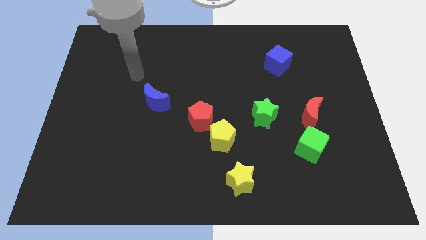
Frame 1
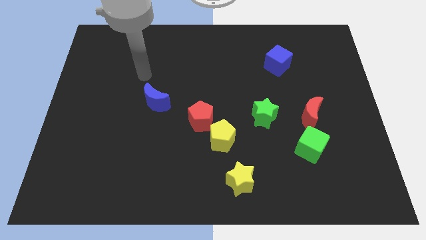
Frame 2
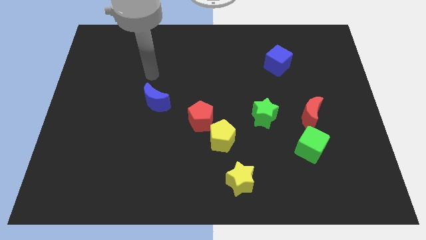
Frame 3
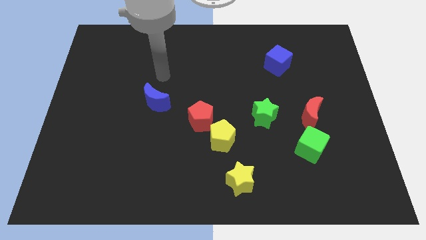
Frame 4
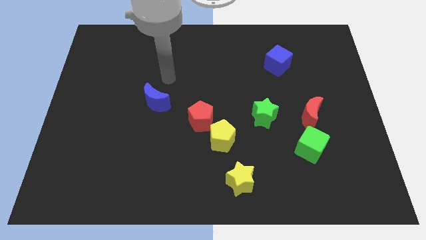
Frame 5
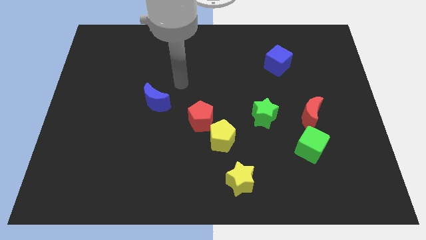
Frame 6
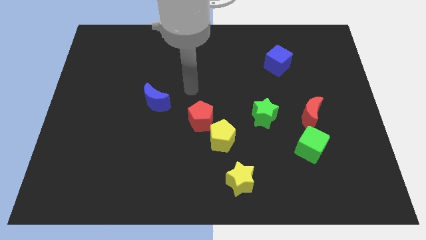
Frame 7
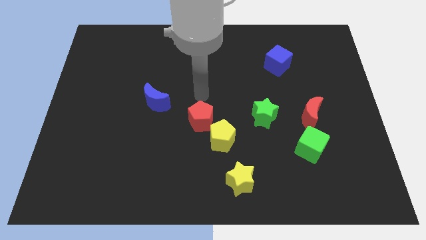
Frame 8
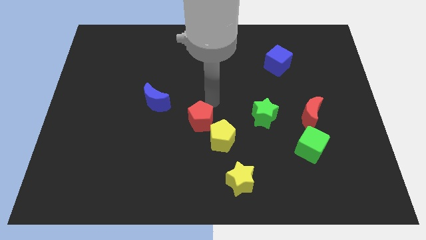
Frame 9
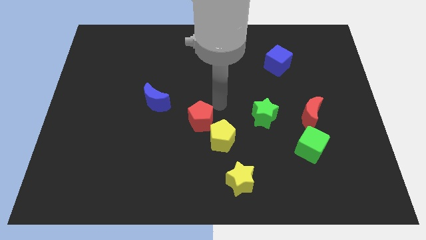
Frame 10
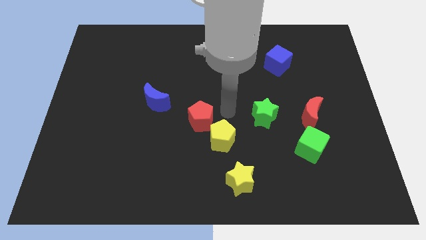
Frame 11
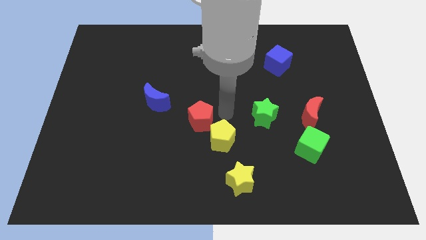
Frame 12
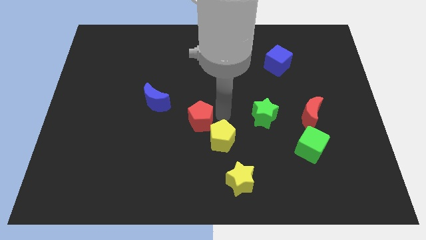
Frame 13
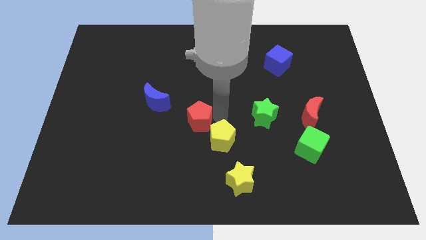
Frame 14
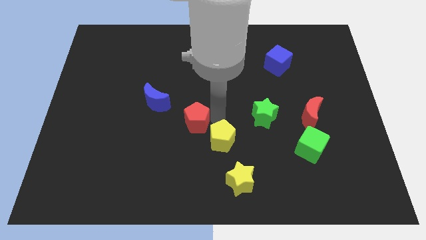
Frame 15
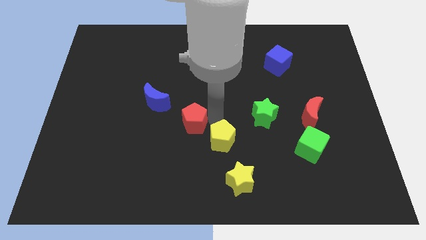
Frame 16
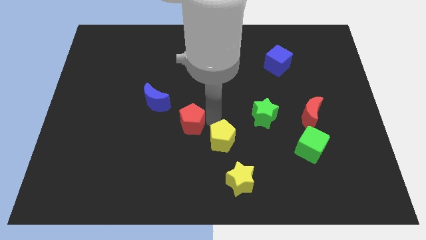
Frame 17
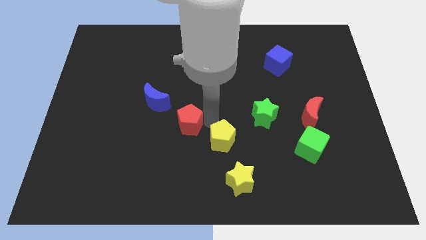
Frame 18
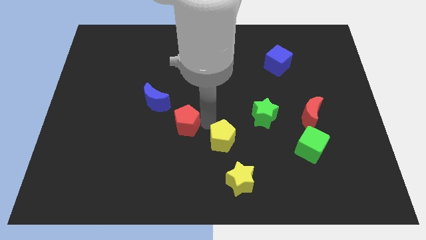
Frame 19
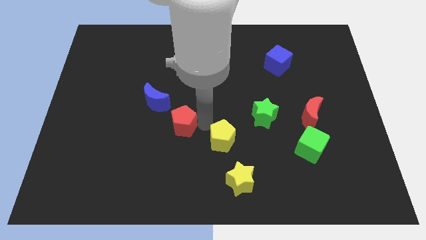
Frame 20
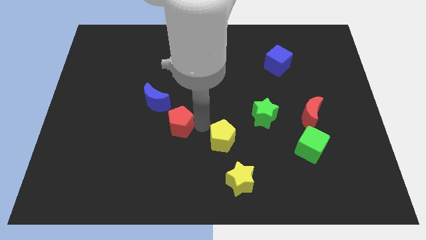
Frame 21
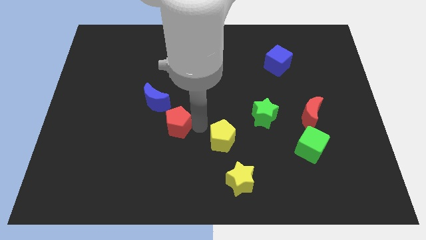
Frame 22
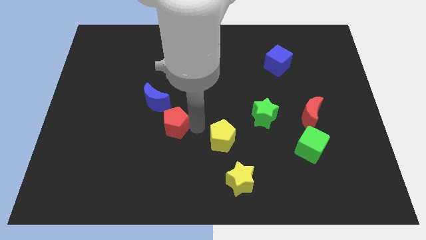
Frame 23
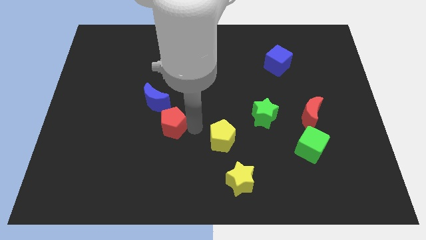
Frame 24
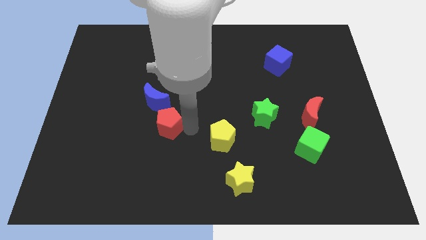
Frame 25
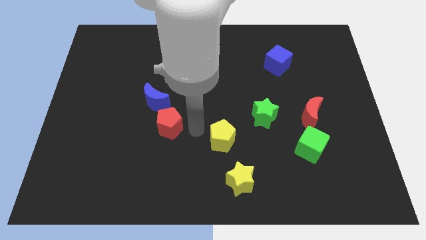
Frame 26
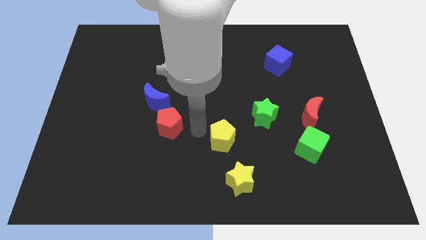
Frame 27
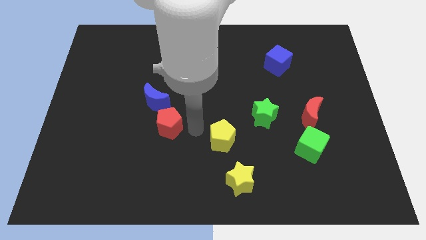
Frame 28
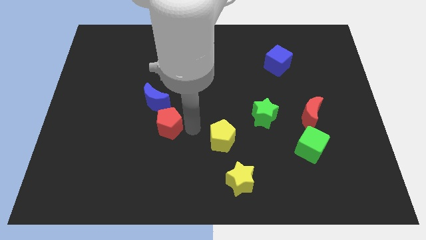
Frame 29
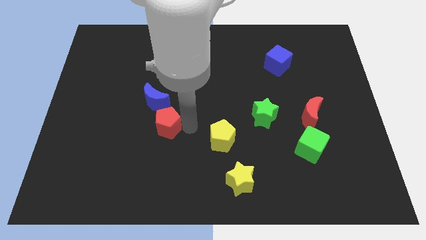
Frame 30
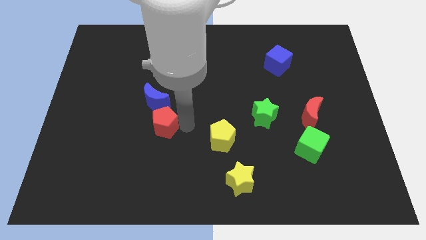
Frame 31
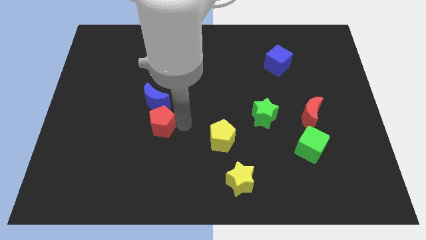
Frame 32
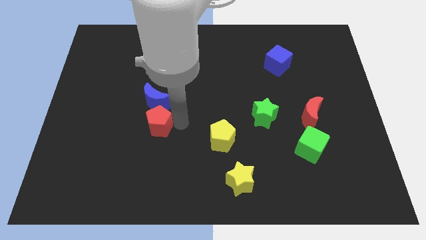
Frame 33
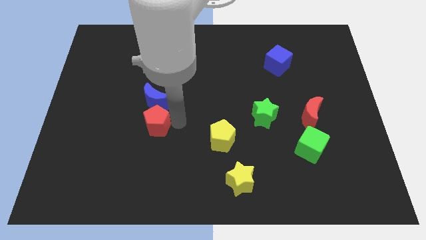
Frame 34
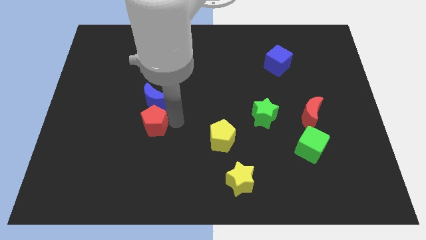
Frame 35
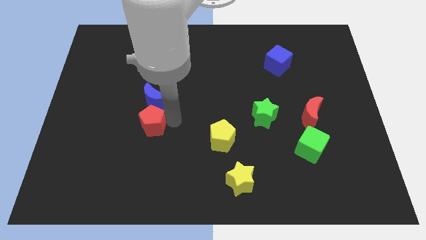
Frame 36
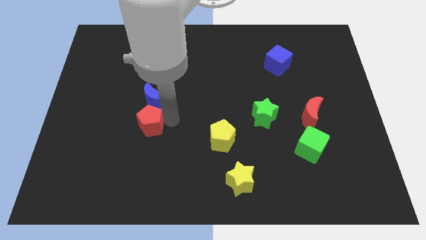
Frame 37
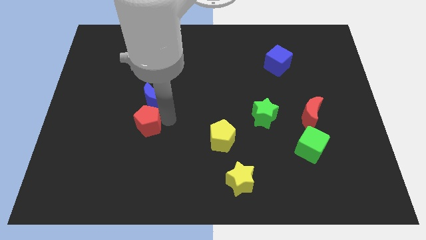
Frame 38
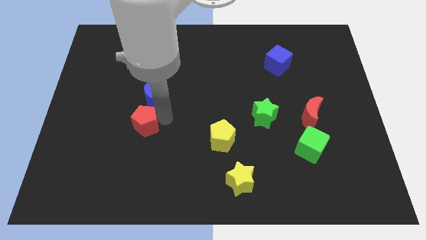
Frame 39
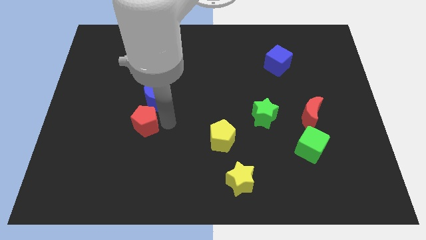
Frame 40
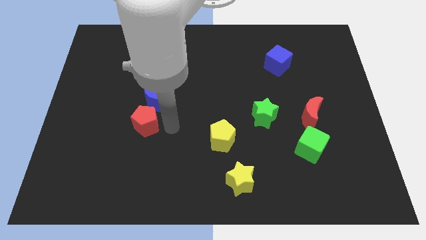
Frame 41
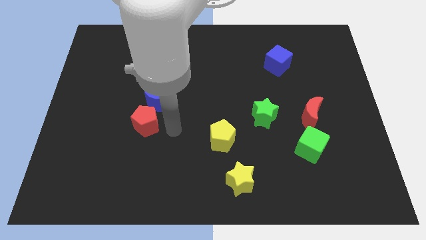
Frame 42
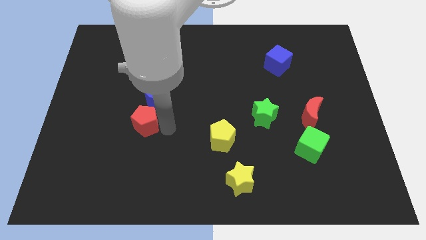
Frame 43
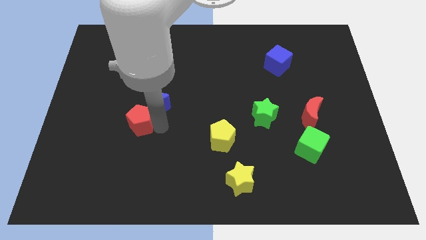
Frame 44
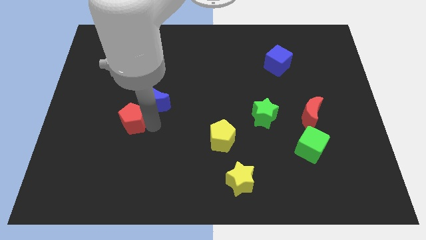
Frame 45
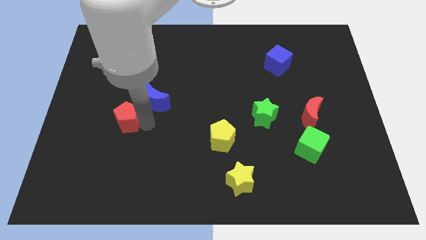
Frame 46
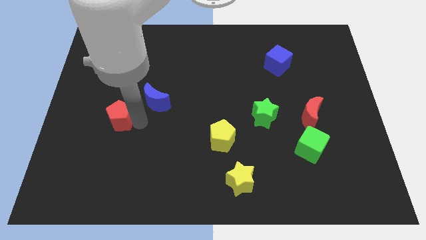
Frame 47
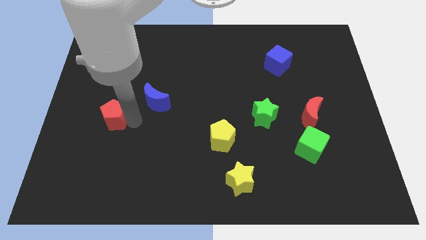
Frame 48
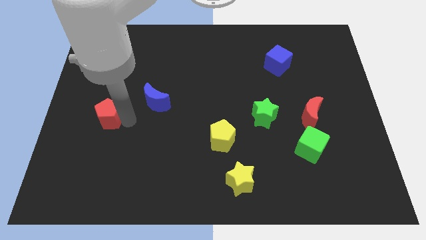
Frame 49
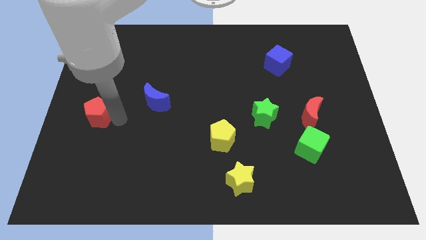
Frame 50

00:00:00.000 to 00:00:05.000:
push the red pentagon to the left side

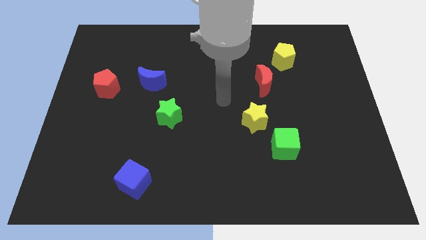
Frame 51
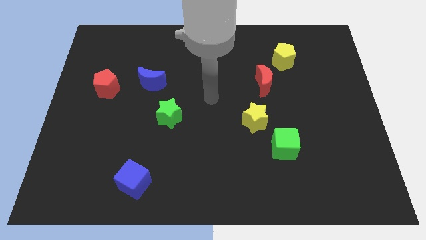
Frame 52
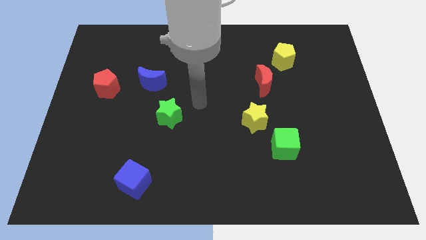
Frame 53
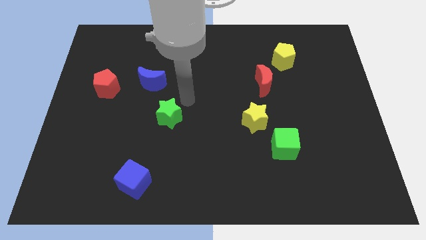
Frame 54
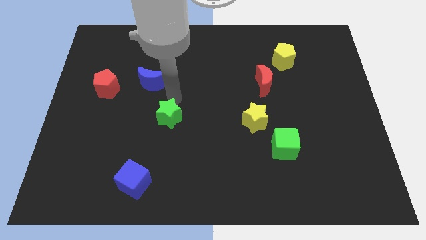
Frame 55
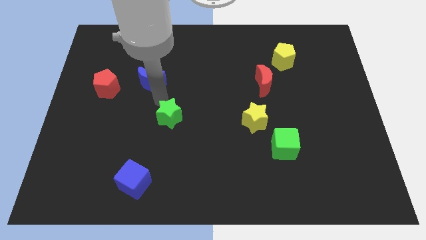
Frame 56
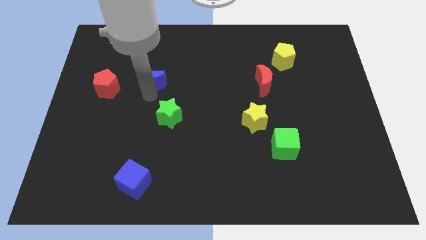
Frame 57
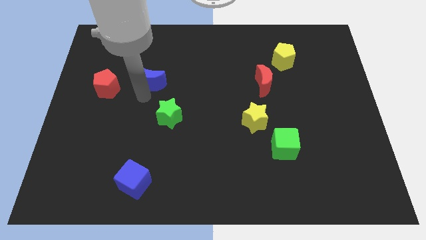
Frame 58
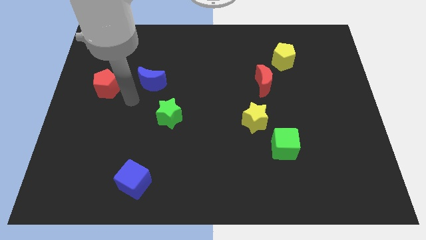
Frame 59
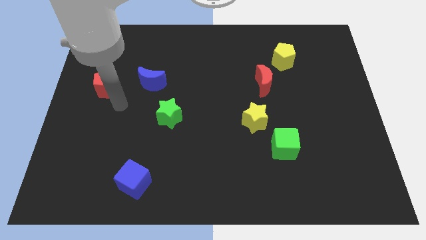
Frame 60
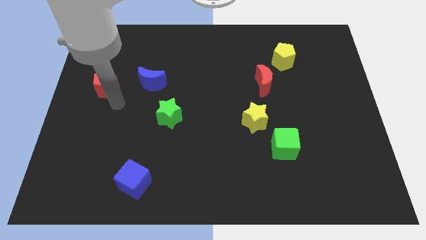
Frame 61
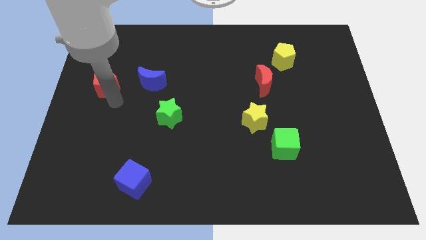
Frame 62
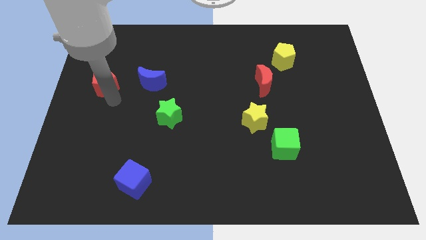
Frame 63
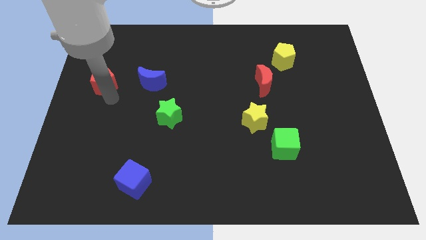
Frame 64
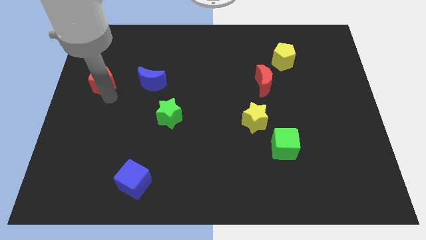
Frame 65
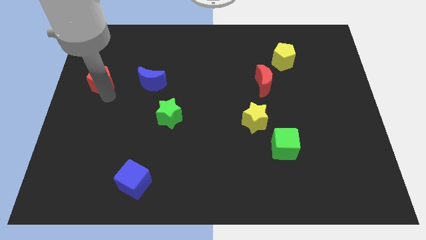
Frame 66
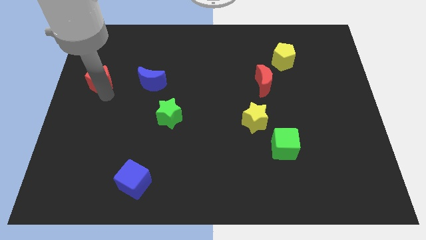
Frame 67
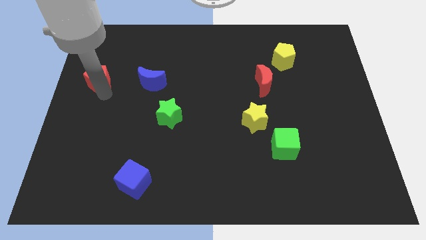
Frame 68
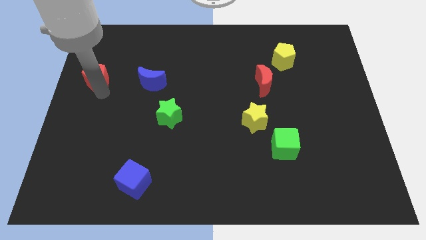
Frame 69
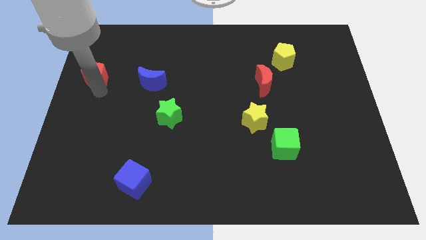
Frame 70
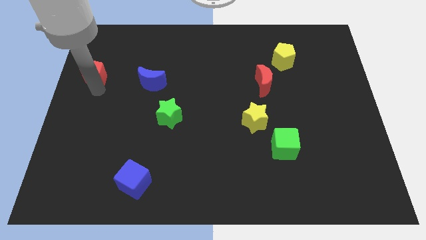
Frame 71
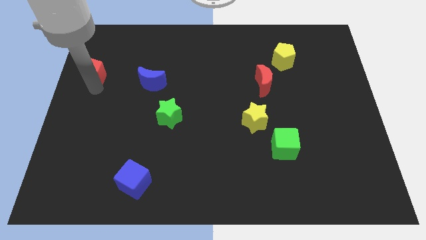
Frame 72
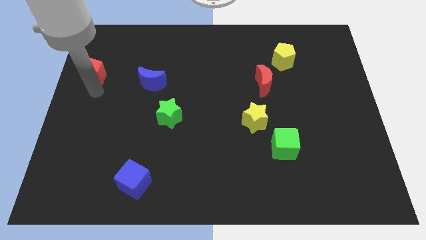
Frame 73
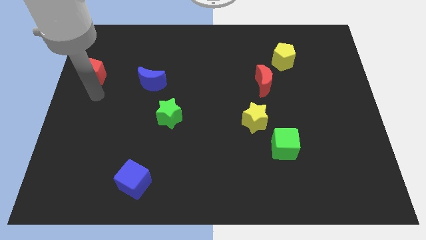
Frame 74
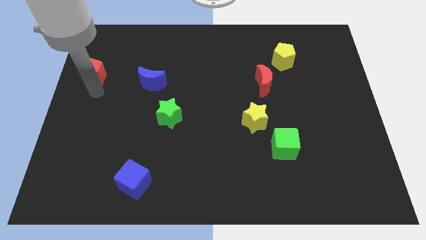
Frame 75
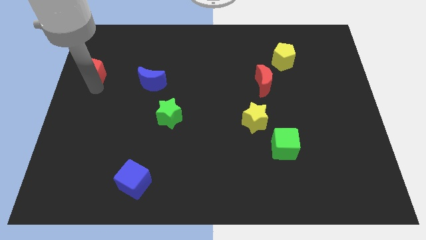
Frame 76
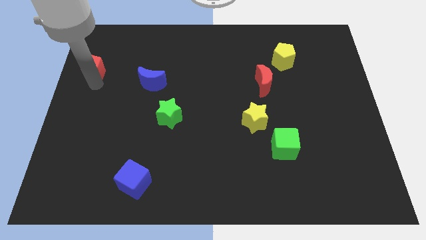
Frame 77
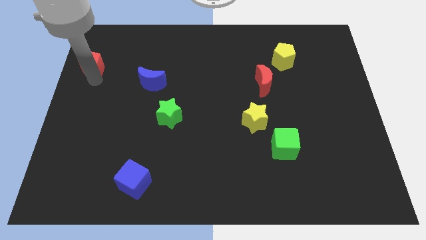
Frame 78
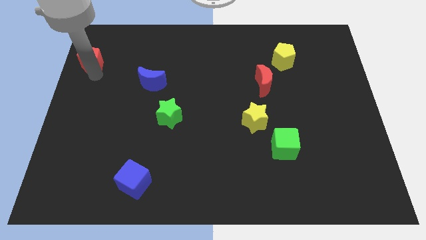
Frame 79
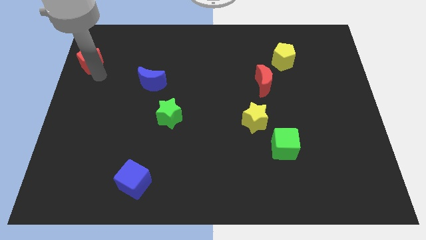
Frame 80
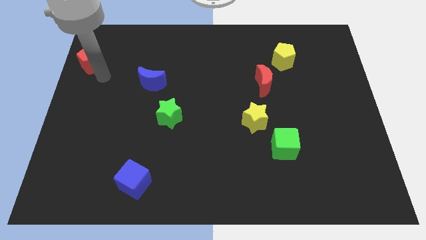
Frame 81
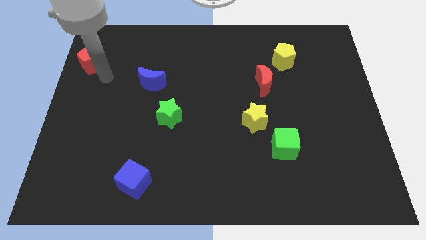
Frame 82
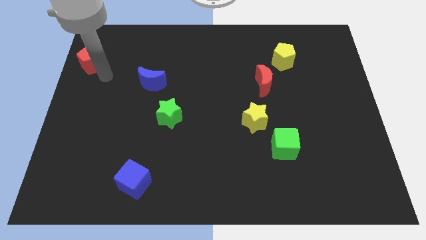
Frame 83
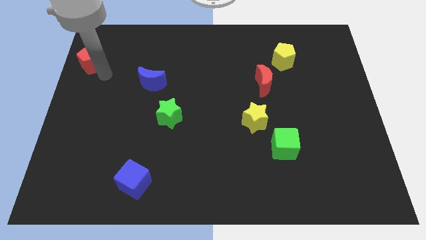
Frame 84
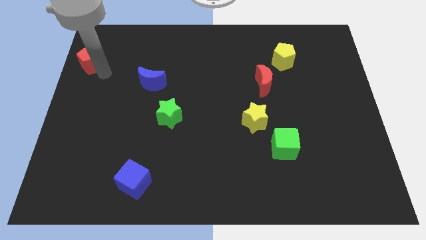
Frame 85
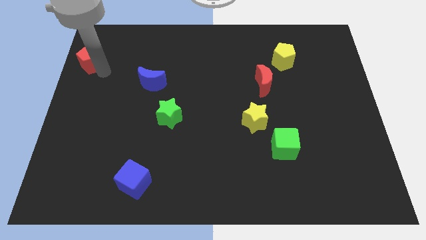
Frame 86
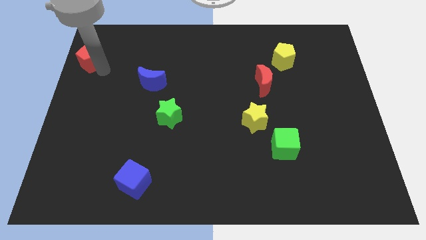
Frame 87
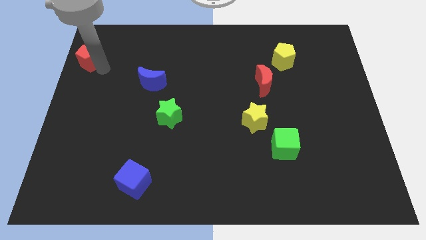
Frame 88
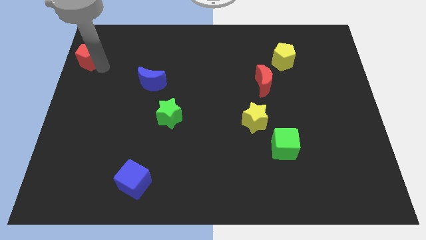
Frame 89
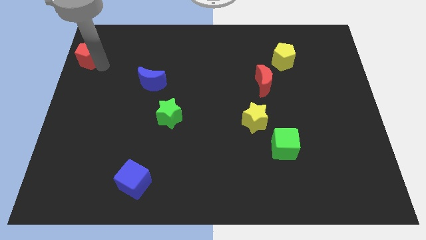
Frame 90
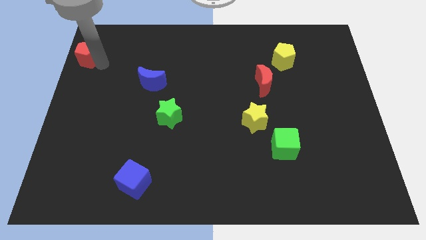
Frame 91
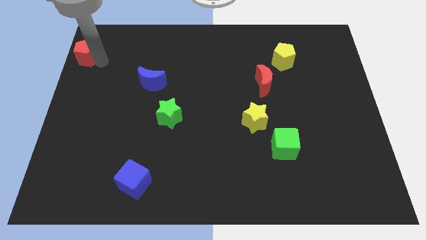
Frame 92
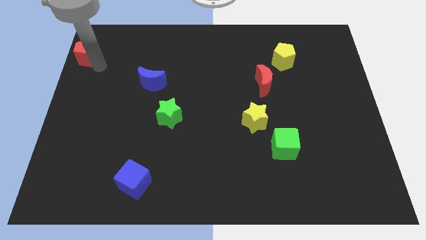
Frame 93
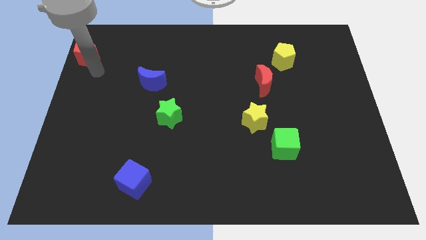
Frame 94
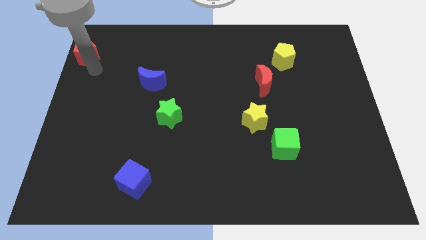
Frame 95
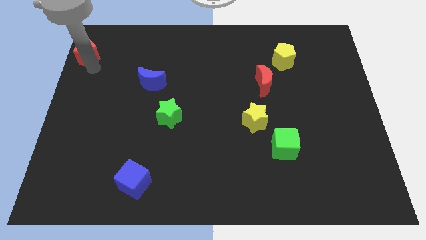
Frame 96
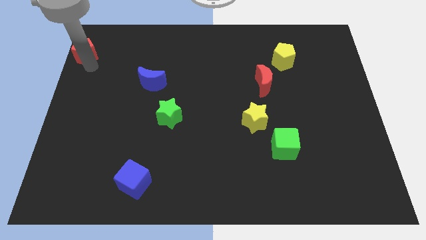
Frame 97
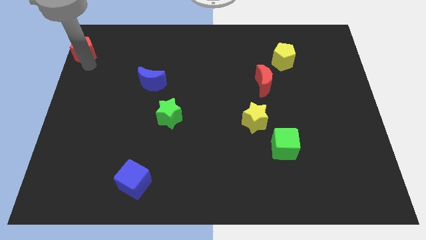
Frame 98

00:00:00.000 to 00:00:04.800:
push the red pentagon to the top left corner
